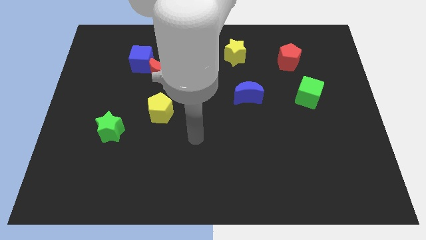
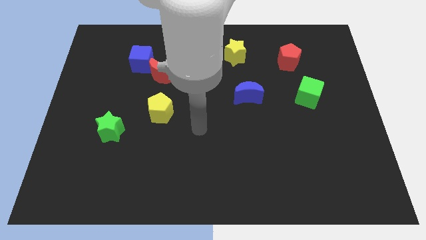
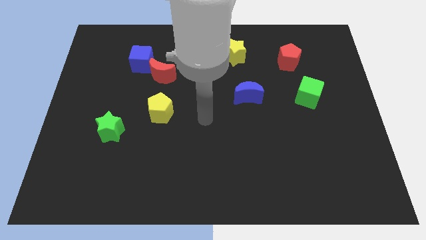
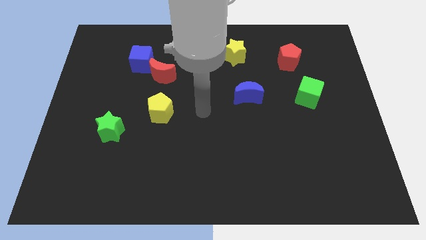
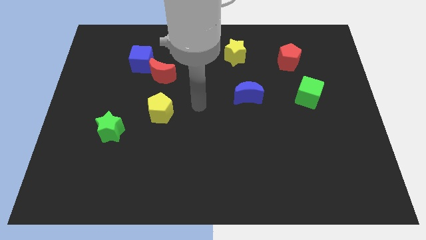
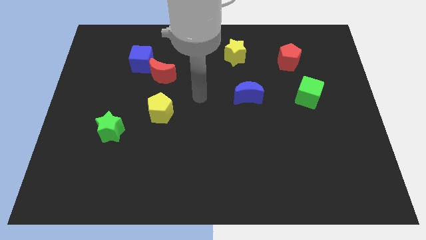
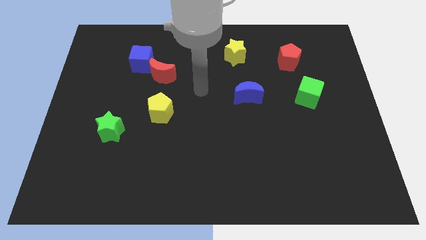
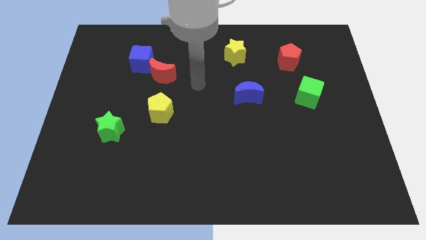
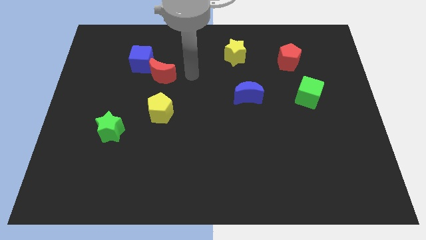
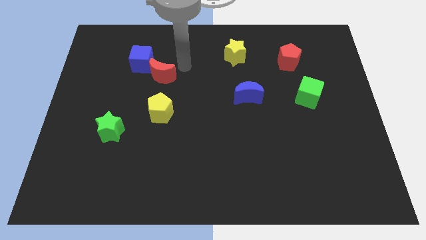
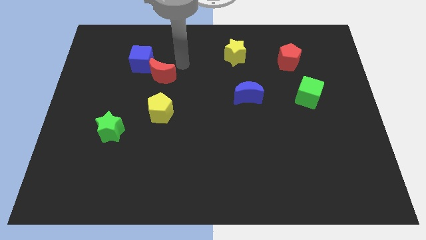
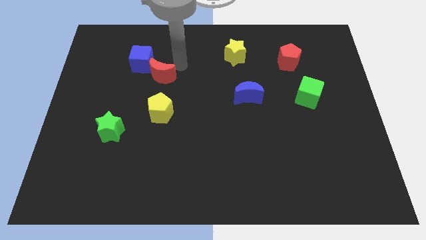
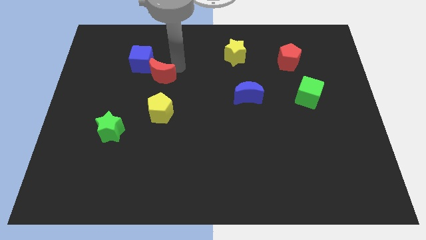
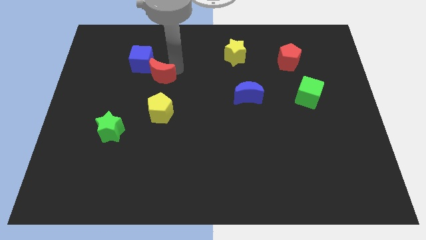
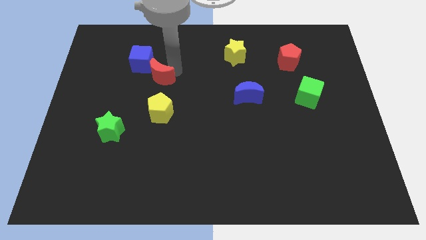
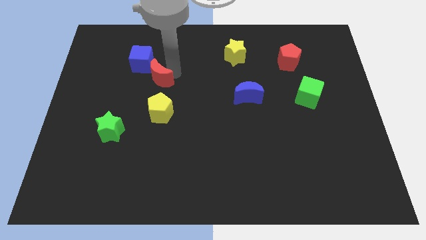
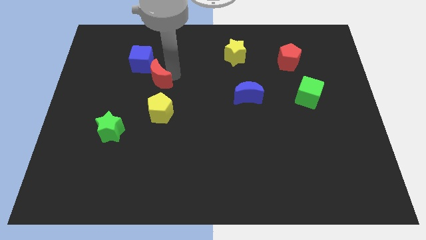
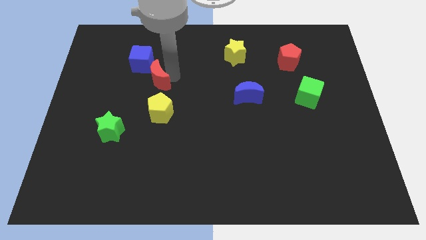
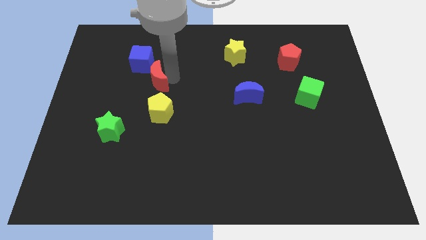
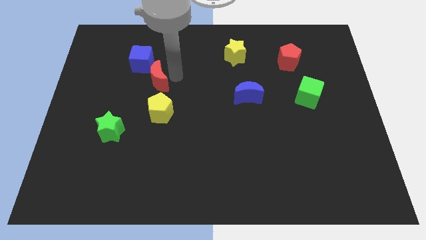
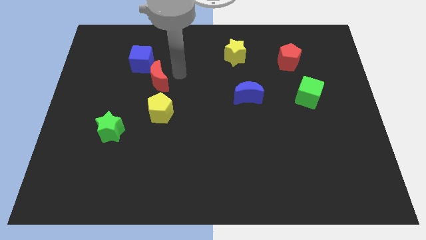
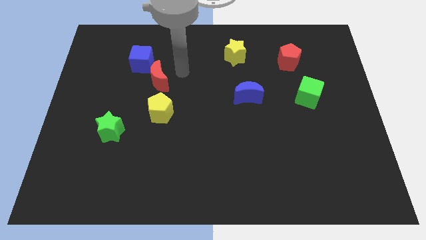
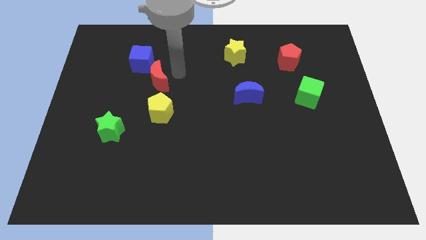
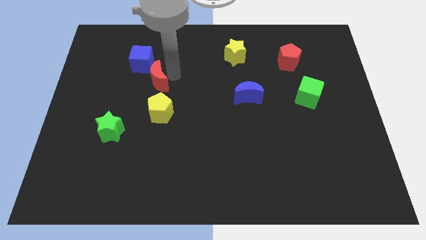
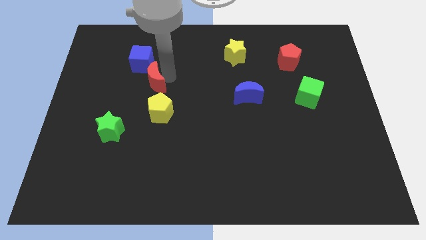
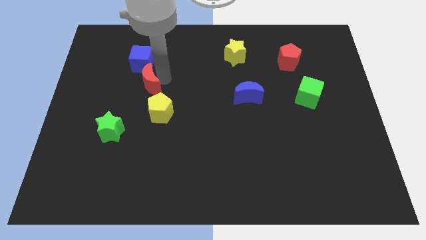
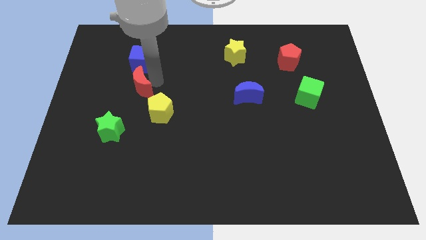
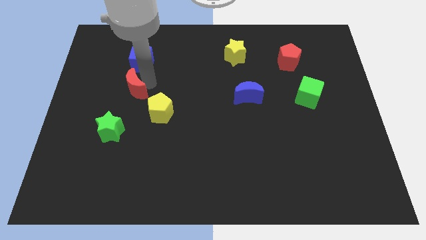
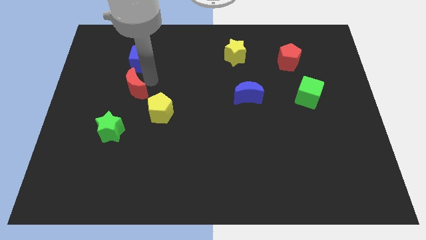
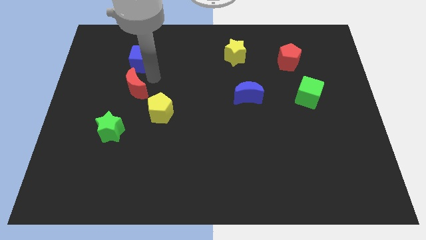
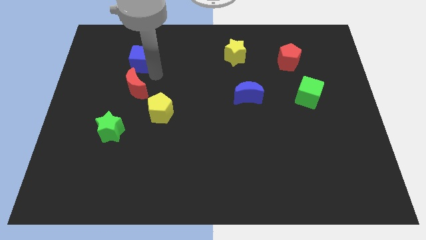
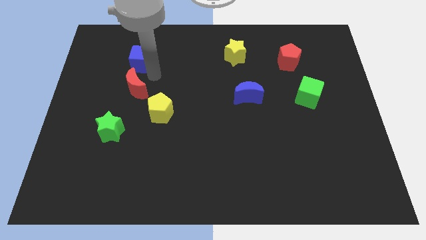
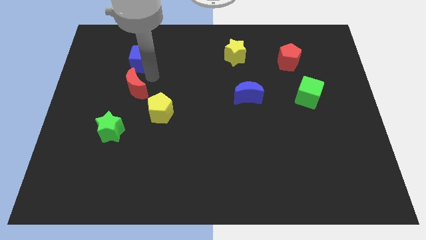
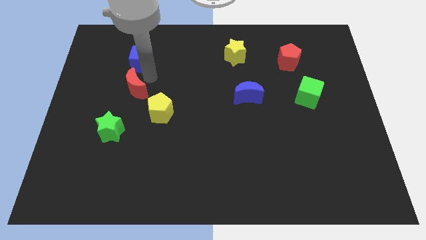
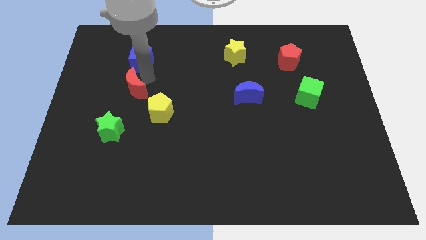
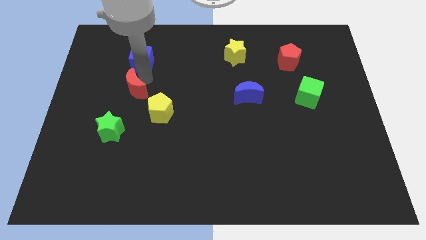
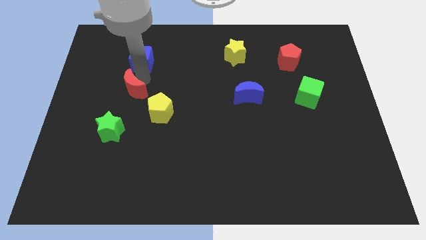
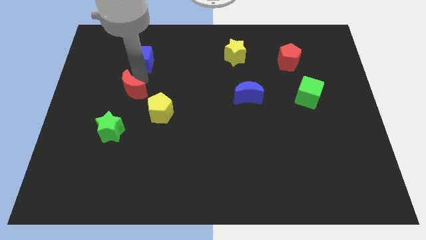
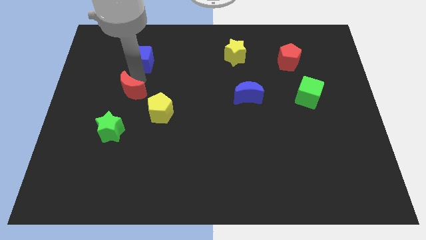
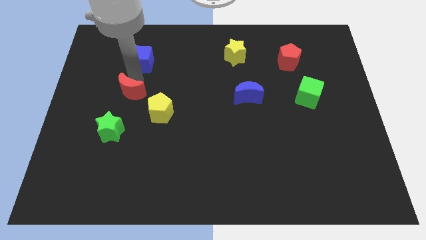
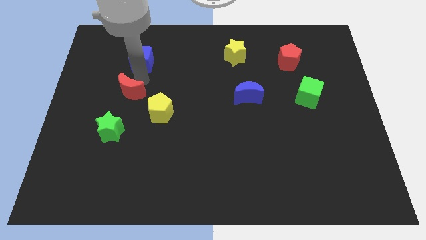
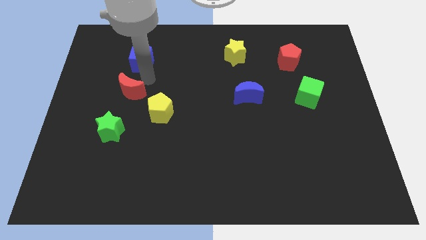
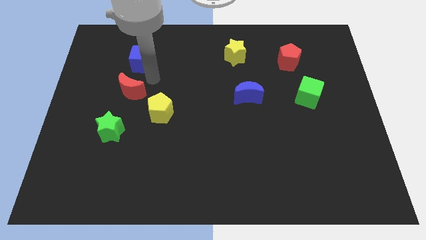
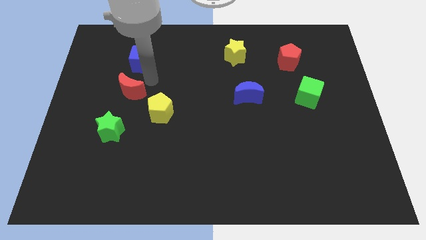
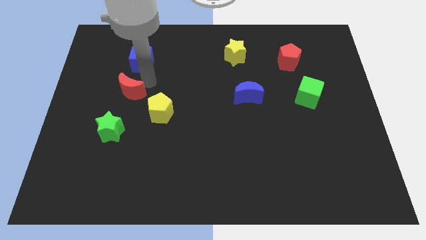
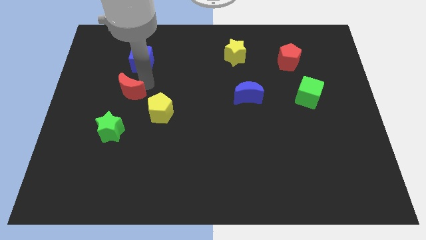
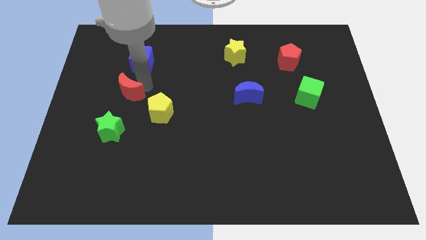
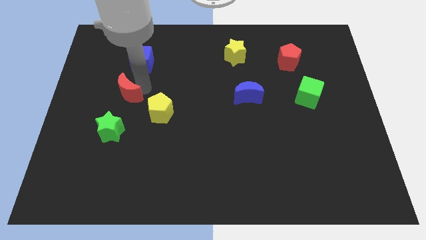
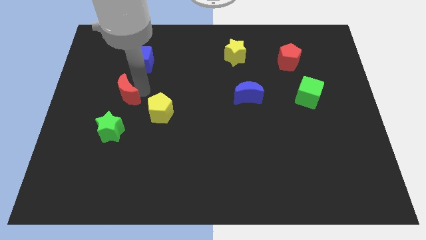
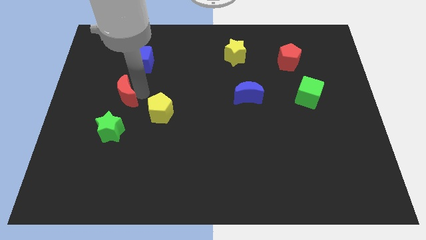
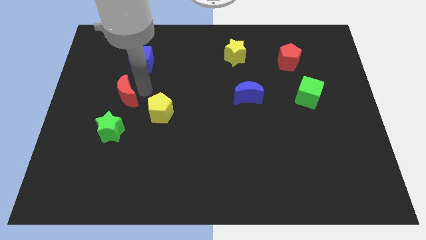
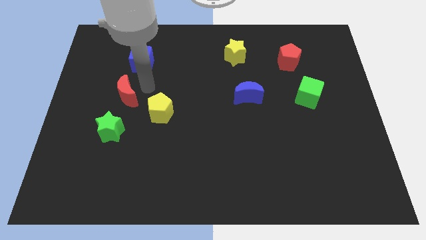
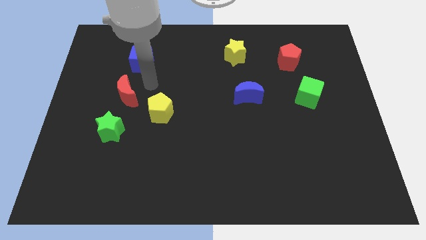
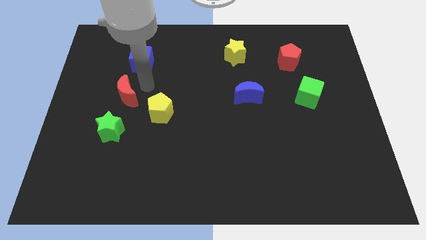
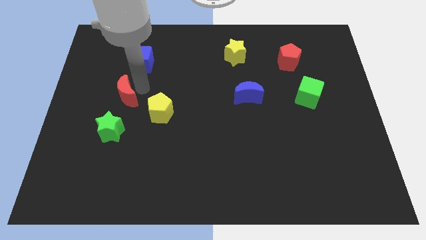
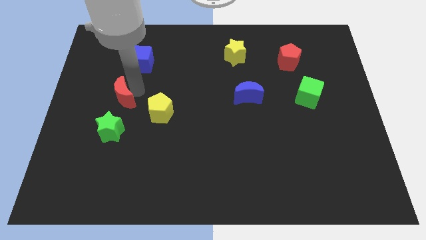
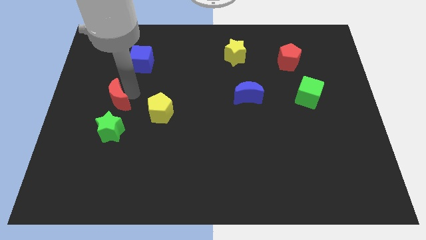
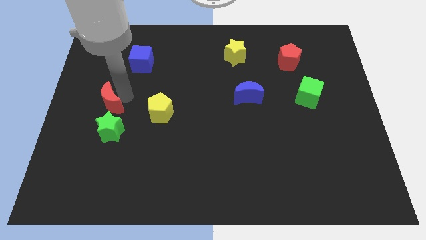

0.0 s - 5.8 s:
slide the red moon to the top left of the green star

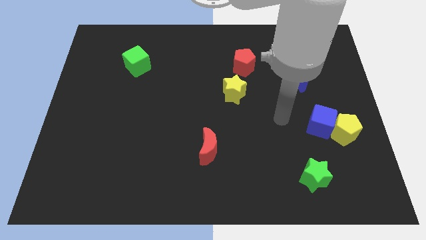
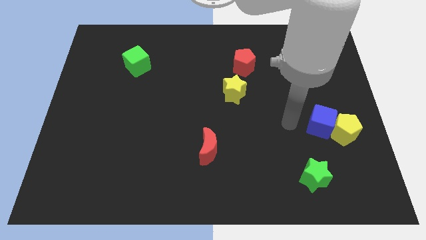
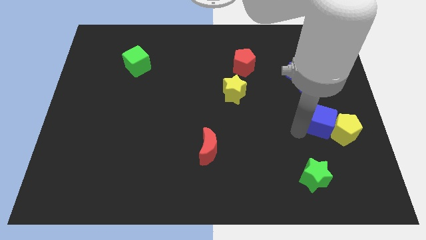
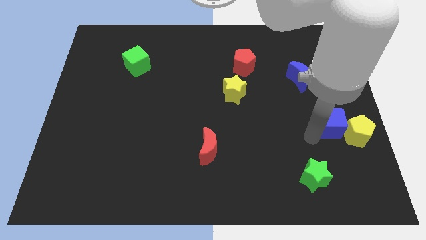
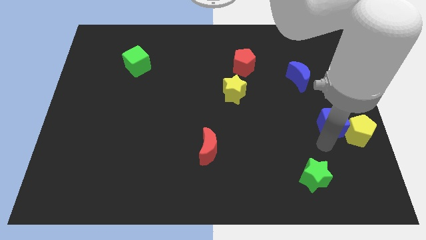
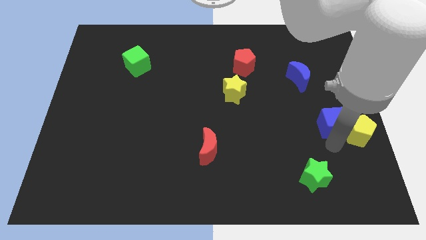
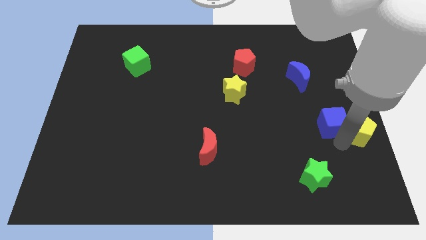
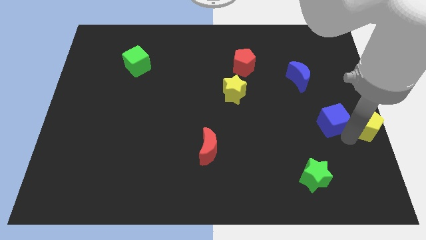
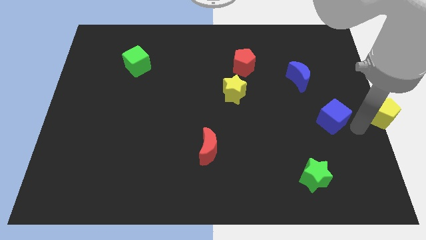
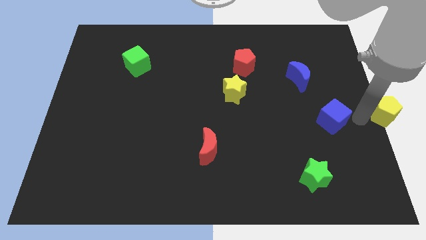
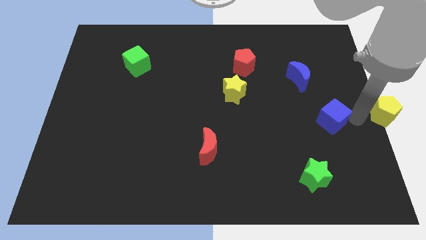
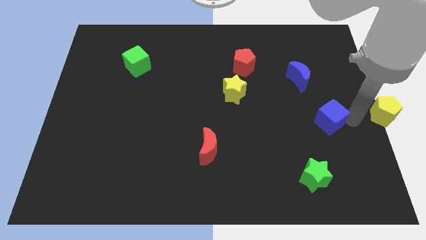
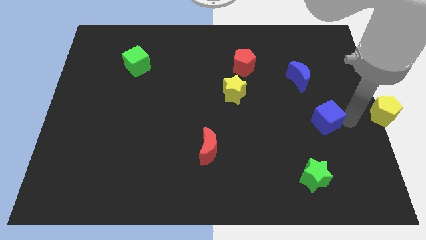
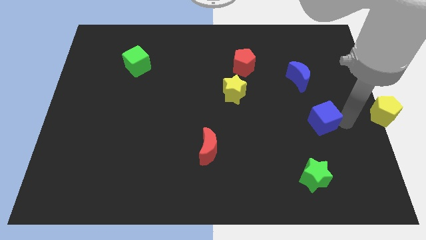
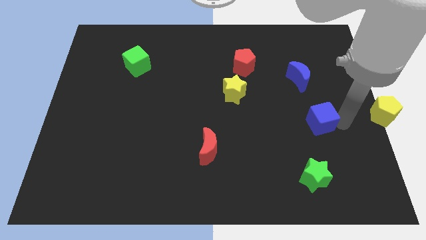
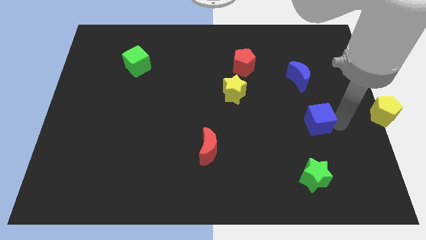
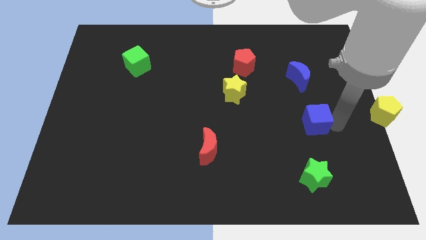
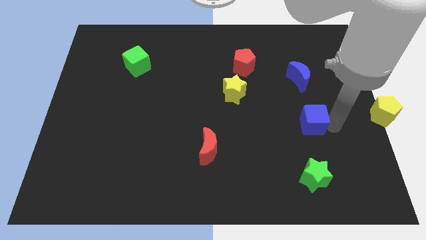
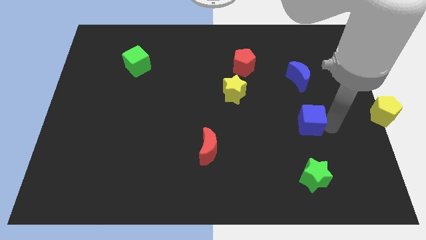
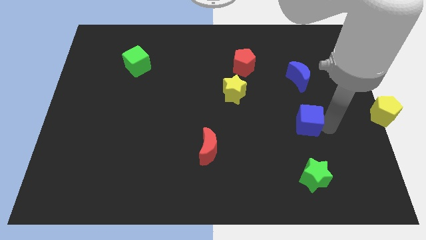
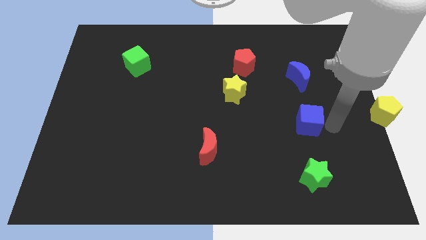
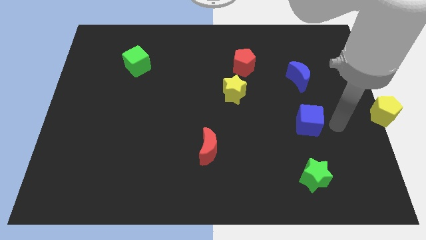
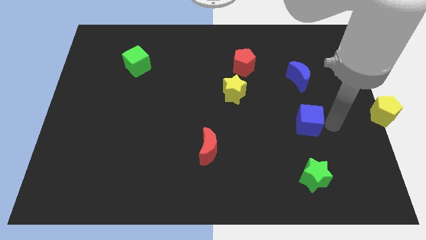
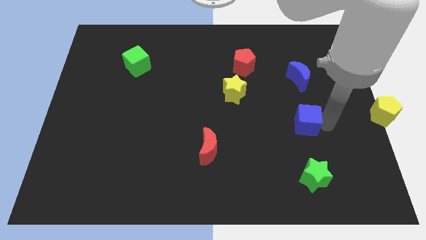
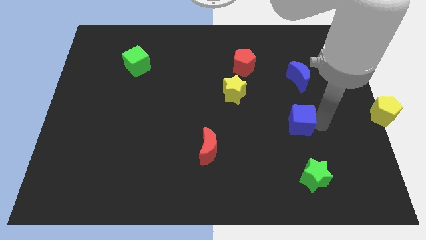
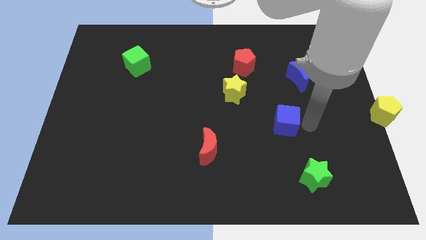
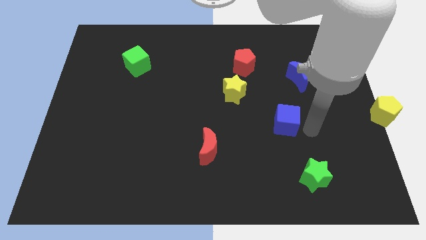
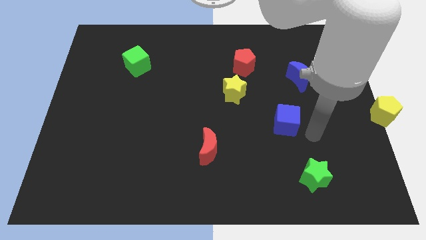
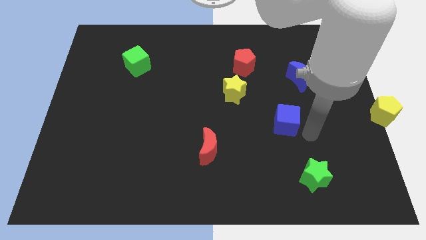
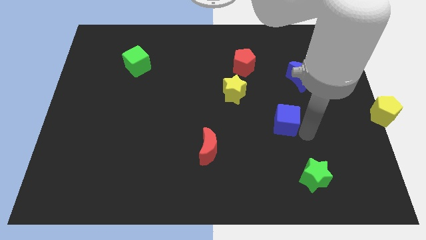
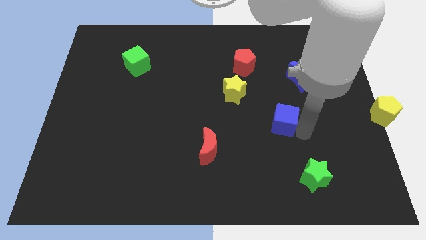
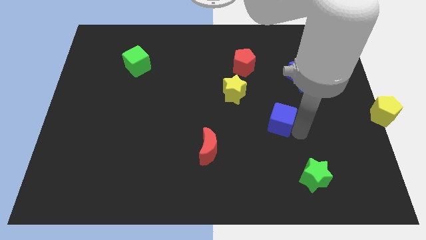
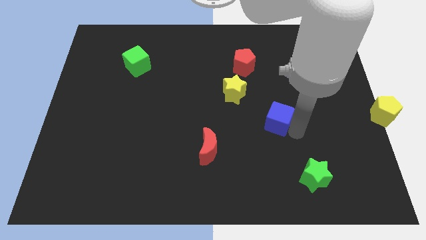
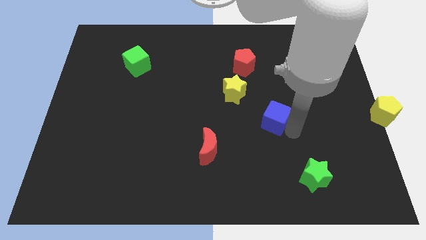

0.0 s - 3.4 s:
slide the blue cube to the bottom right of the yellow star
